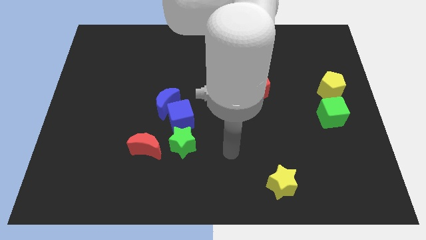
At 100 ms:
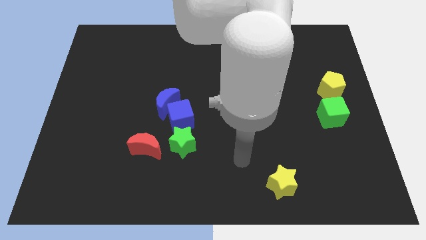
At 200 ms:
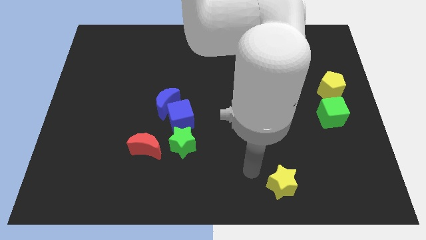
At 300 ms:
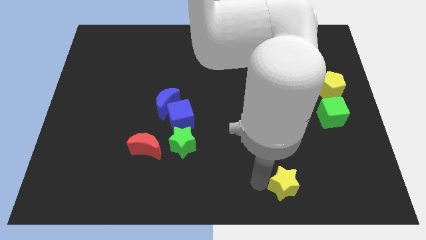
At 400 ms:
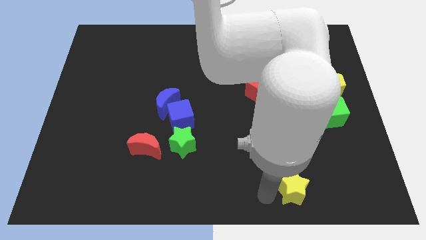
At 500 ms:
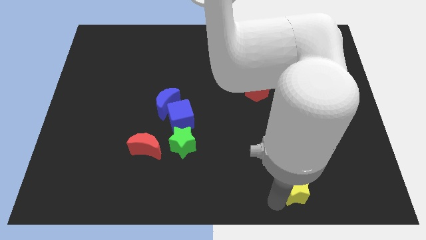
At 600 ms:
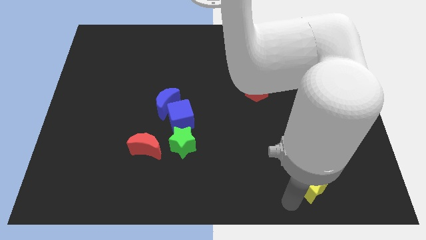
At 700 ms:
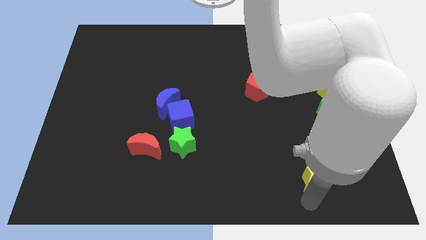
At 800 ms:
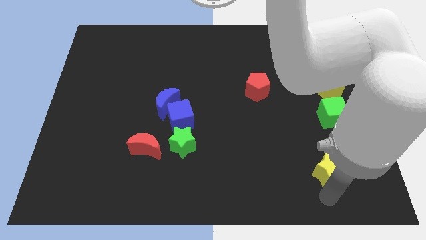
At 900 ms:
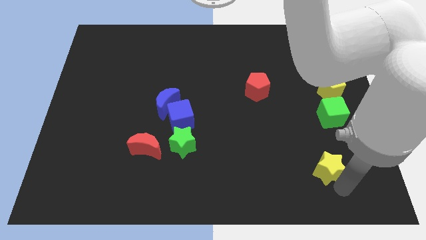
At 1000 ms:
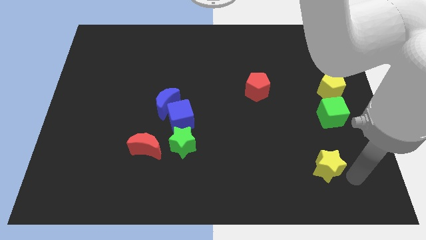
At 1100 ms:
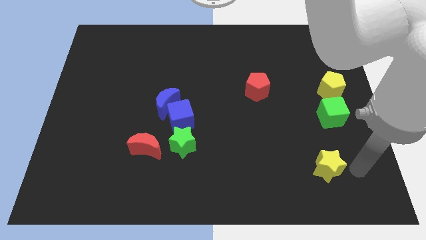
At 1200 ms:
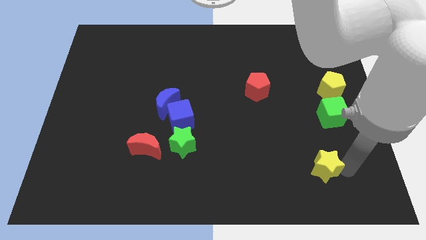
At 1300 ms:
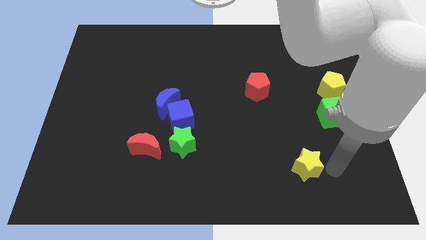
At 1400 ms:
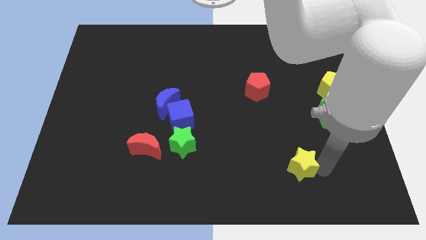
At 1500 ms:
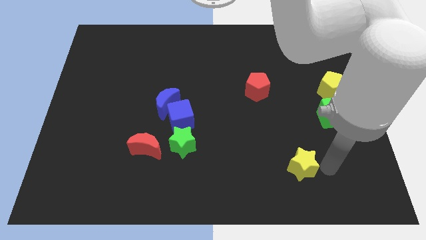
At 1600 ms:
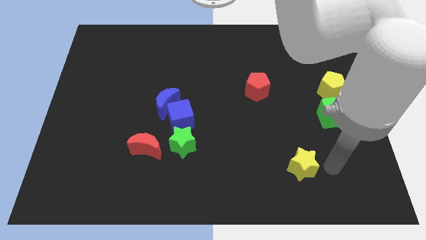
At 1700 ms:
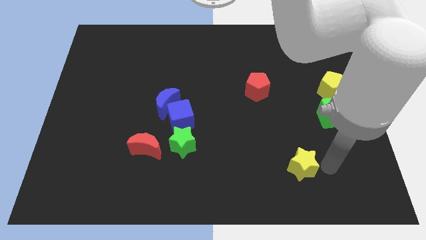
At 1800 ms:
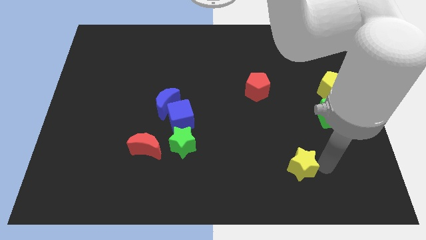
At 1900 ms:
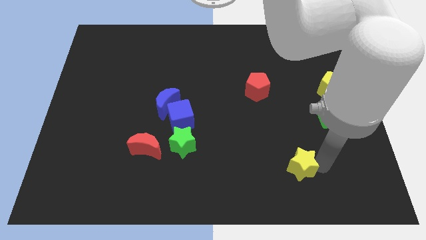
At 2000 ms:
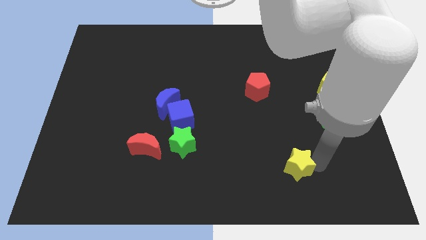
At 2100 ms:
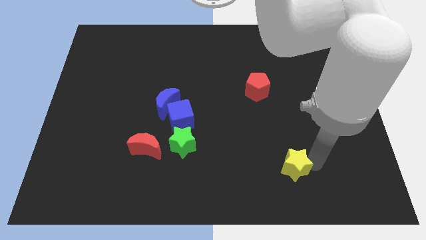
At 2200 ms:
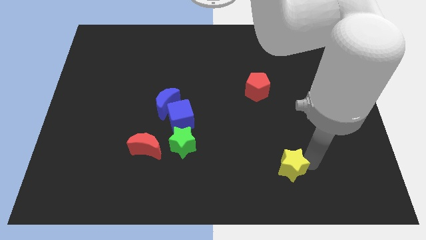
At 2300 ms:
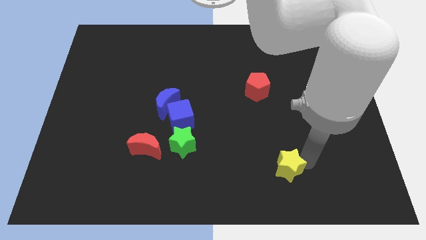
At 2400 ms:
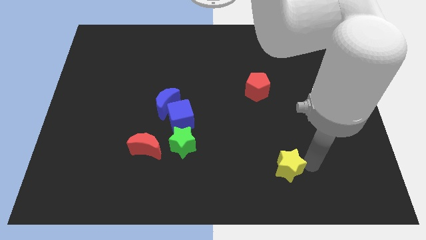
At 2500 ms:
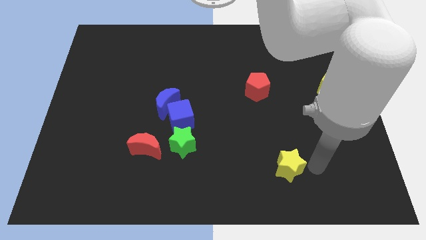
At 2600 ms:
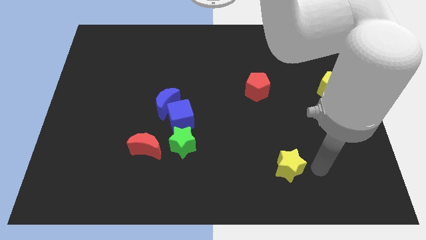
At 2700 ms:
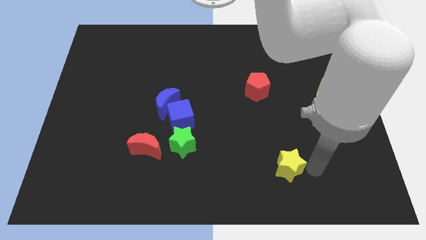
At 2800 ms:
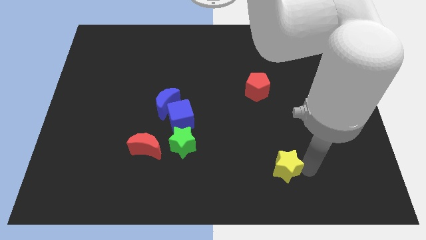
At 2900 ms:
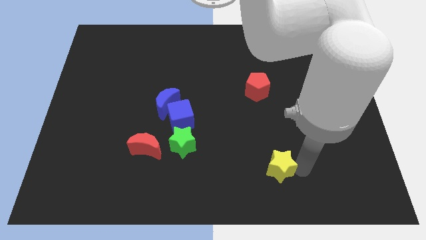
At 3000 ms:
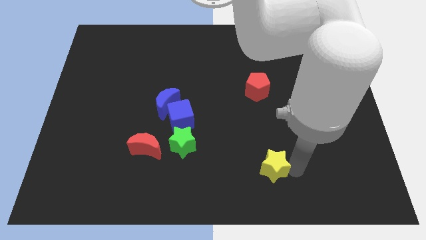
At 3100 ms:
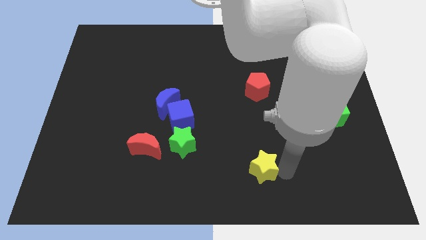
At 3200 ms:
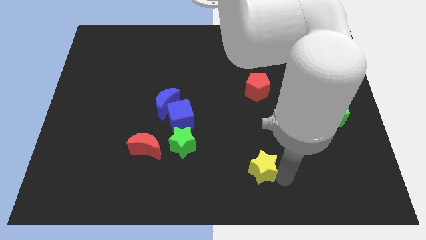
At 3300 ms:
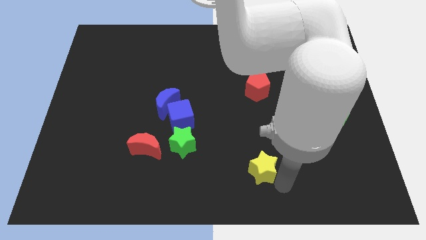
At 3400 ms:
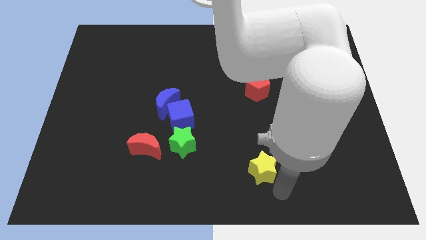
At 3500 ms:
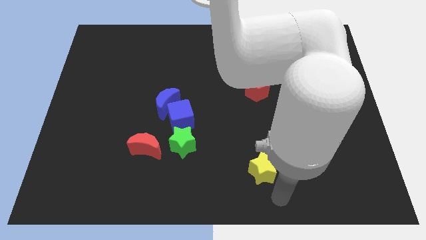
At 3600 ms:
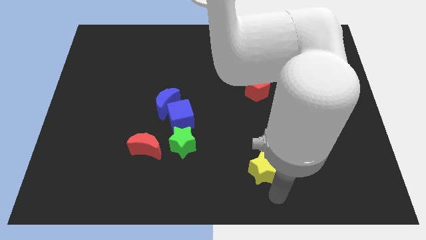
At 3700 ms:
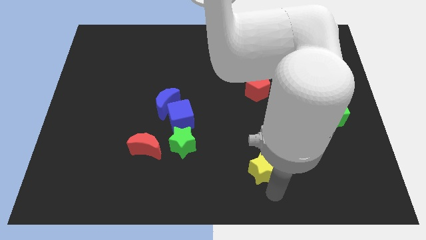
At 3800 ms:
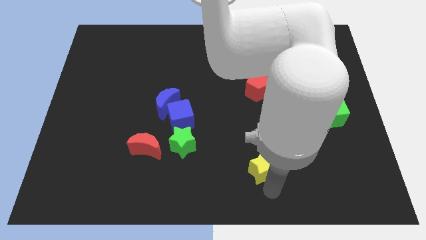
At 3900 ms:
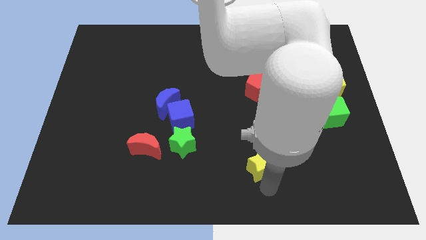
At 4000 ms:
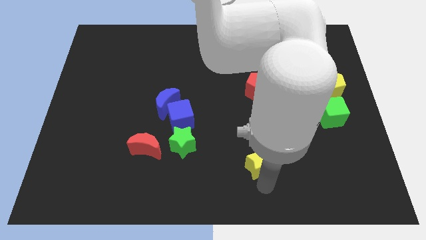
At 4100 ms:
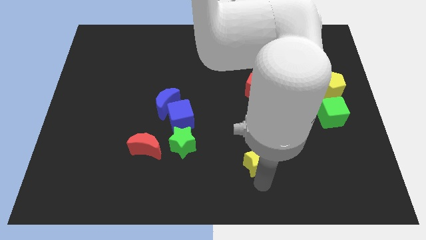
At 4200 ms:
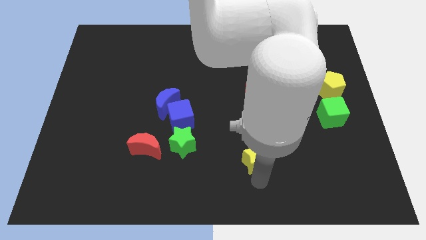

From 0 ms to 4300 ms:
move the yellow star a bit up and then to the left

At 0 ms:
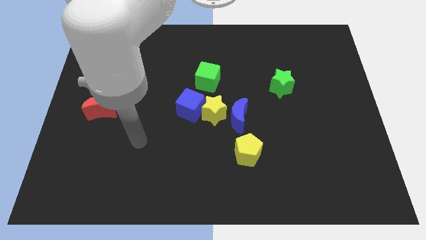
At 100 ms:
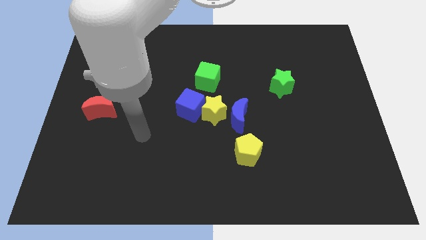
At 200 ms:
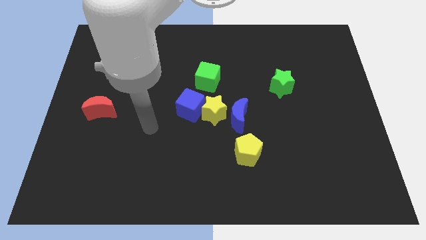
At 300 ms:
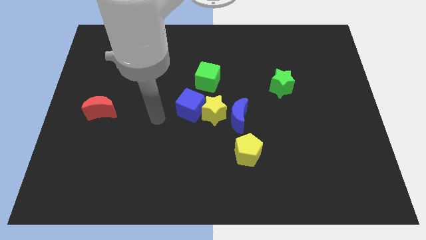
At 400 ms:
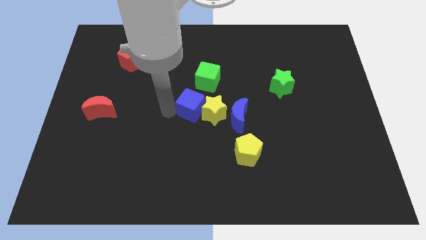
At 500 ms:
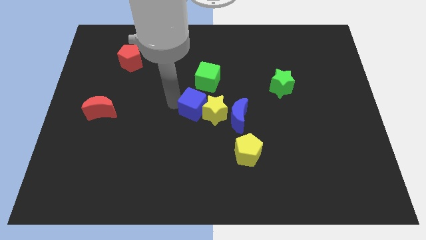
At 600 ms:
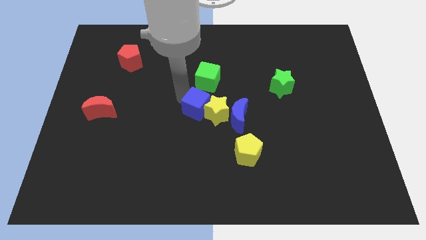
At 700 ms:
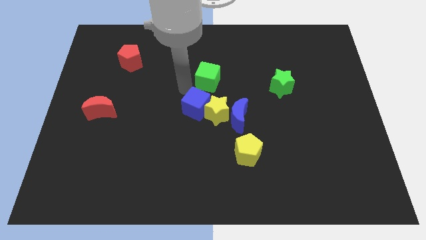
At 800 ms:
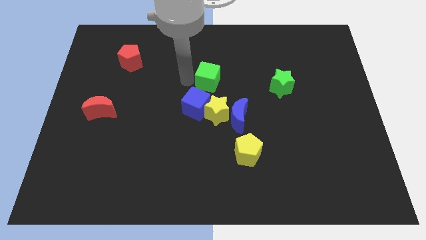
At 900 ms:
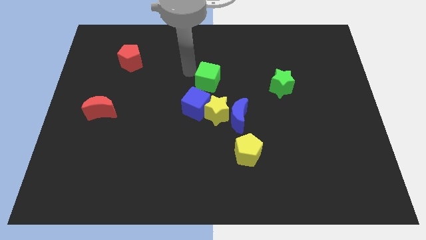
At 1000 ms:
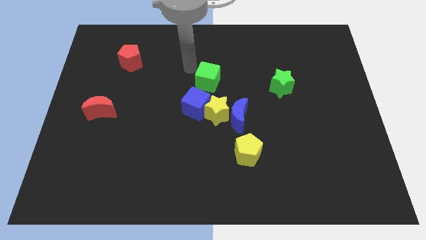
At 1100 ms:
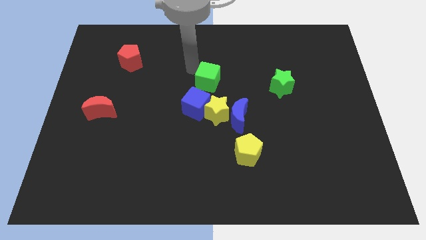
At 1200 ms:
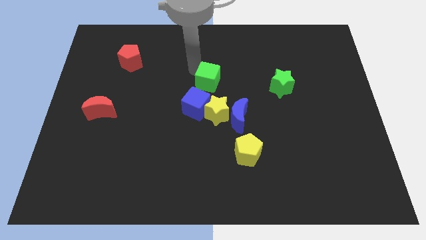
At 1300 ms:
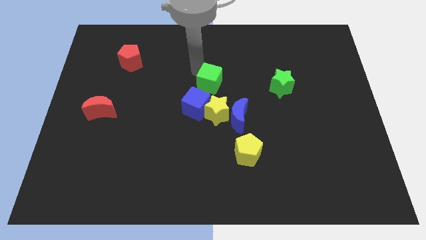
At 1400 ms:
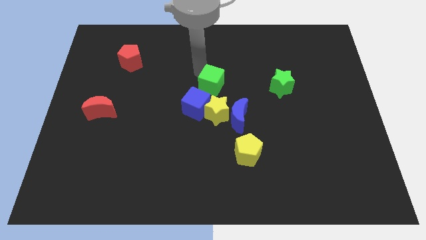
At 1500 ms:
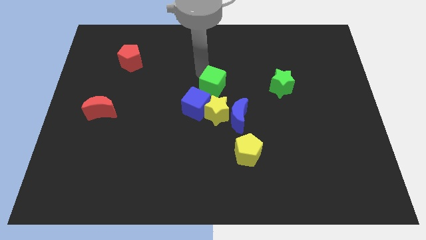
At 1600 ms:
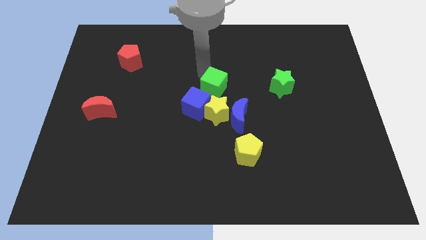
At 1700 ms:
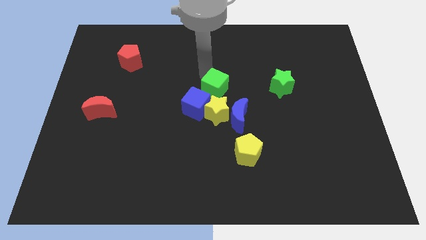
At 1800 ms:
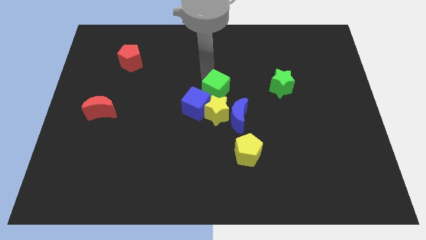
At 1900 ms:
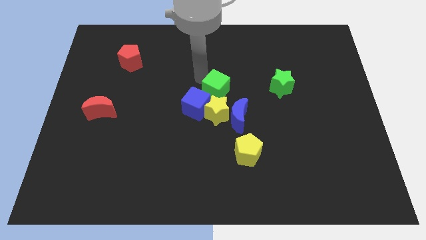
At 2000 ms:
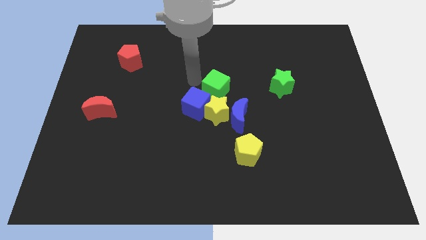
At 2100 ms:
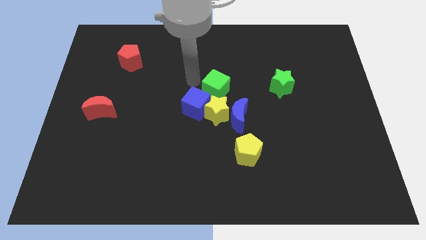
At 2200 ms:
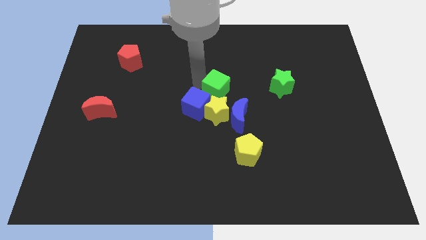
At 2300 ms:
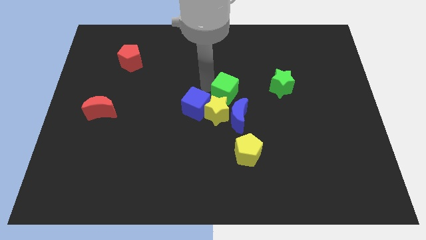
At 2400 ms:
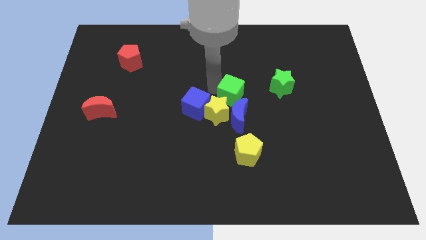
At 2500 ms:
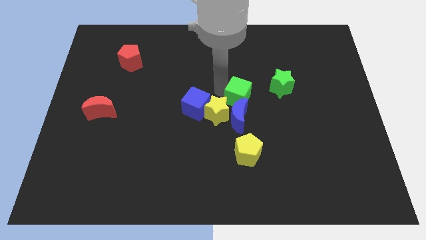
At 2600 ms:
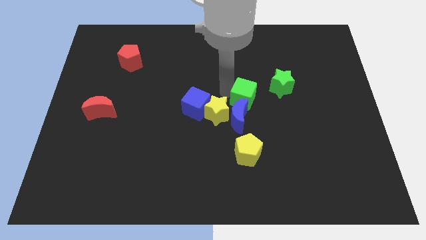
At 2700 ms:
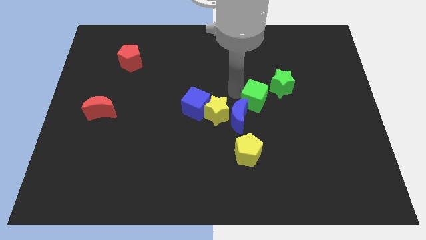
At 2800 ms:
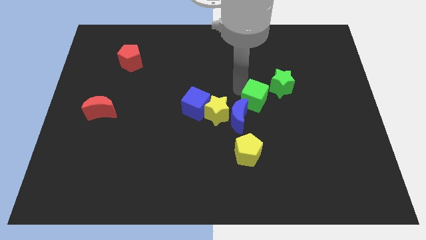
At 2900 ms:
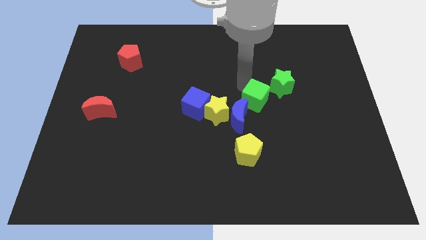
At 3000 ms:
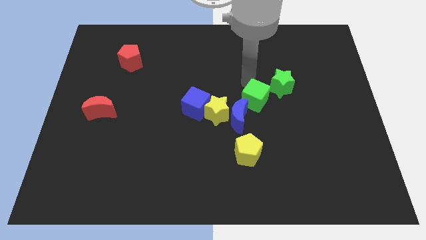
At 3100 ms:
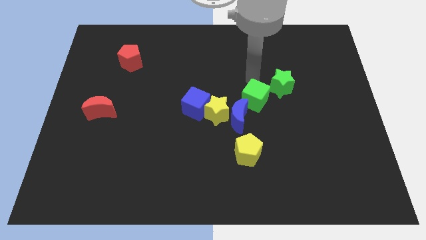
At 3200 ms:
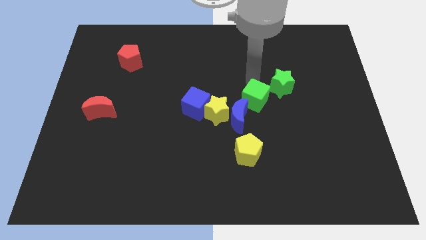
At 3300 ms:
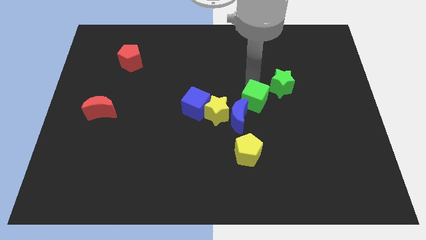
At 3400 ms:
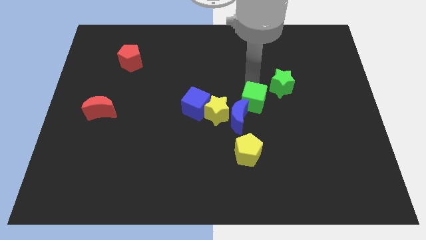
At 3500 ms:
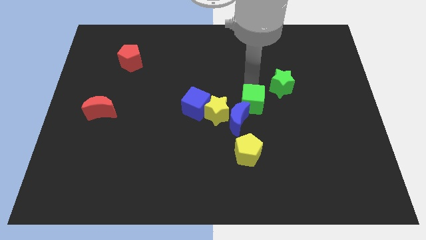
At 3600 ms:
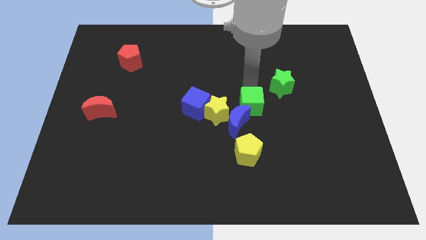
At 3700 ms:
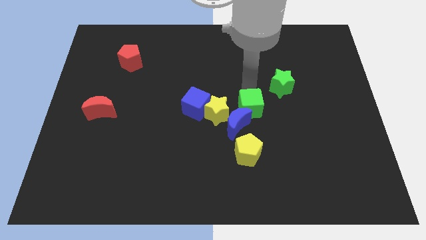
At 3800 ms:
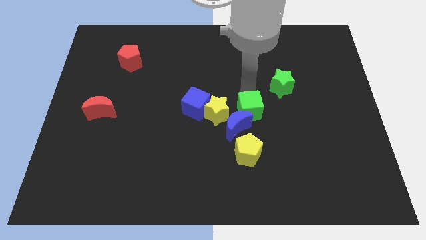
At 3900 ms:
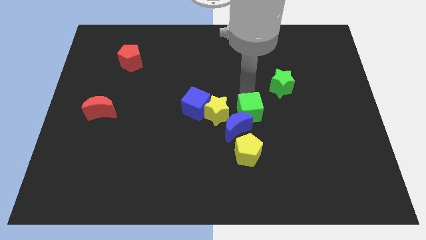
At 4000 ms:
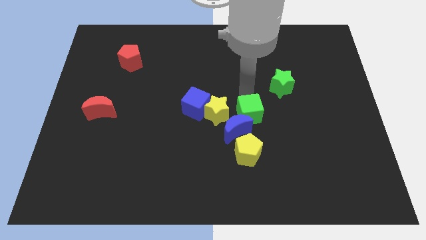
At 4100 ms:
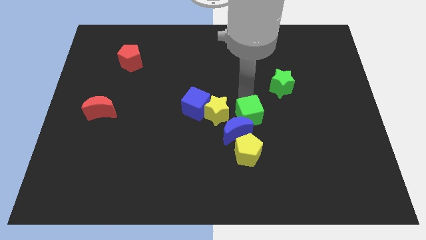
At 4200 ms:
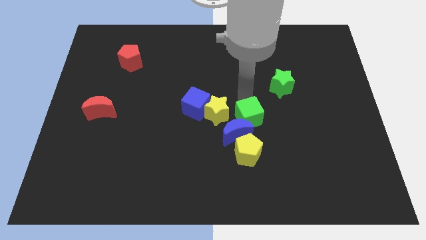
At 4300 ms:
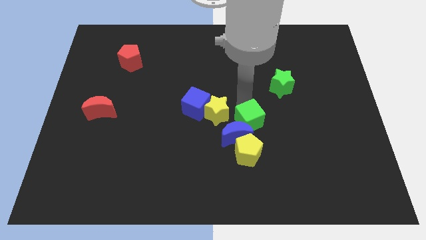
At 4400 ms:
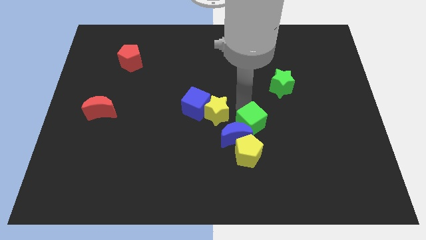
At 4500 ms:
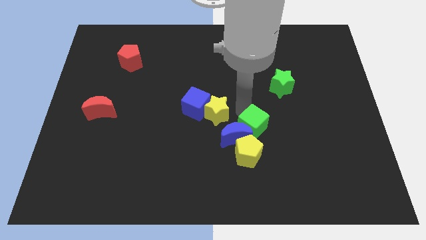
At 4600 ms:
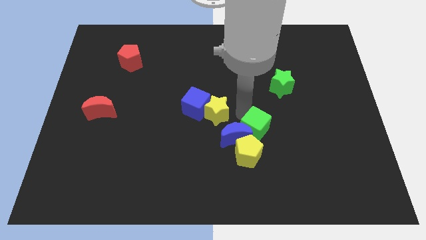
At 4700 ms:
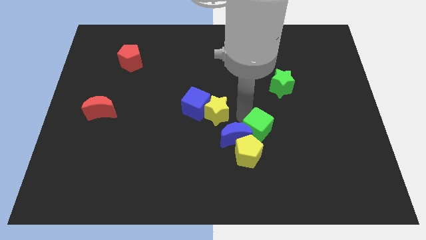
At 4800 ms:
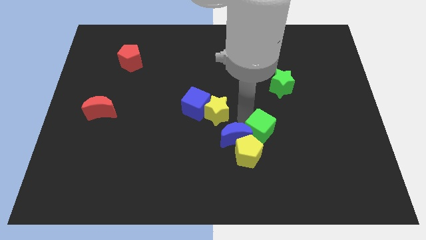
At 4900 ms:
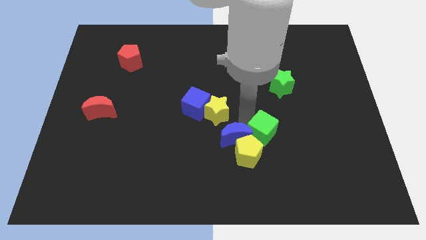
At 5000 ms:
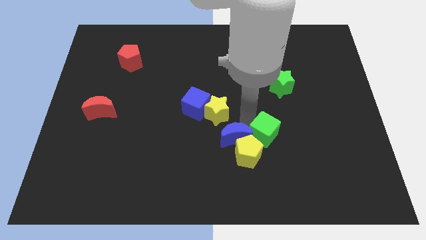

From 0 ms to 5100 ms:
slide the green cube down and right
